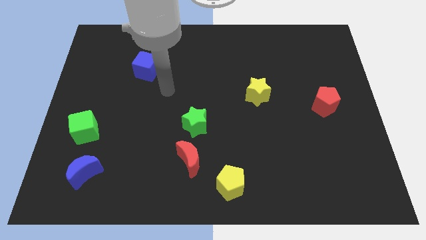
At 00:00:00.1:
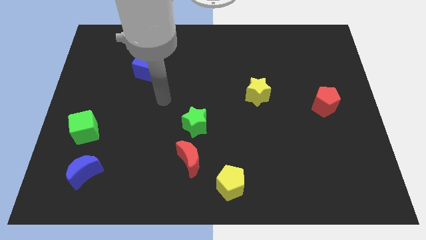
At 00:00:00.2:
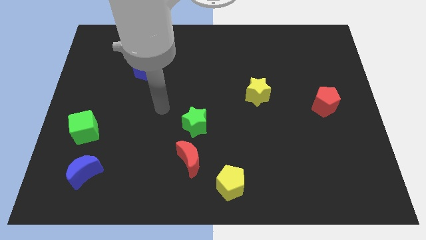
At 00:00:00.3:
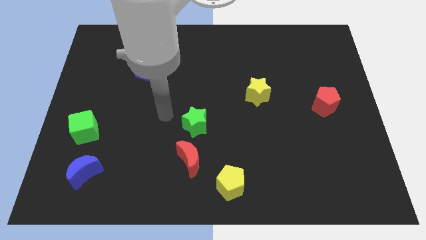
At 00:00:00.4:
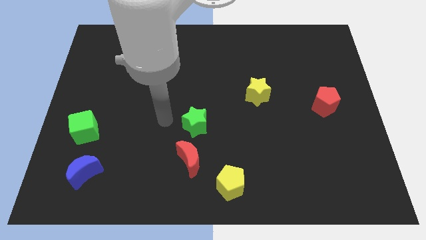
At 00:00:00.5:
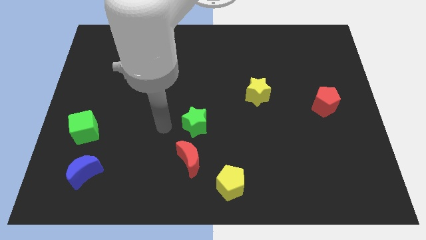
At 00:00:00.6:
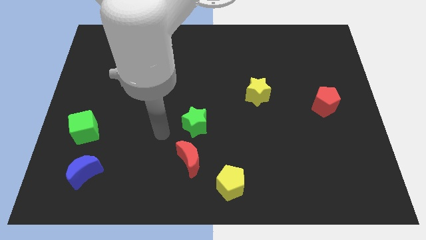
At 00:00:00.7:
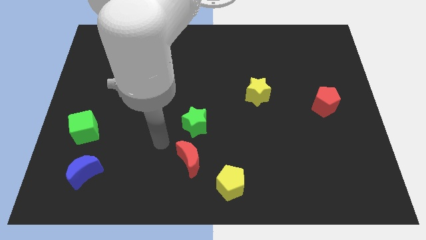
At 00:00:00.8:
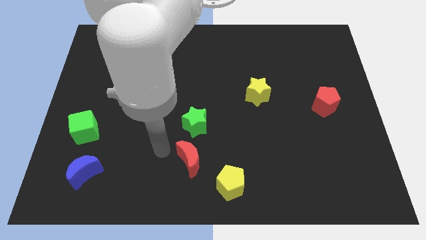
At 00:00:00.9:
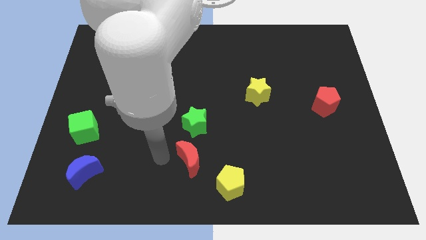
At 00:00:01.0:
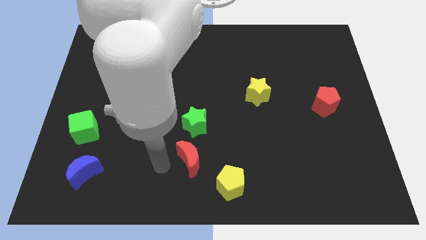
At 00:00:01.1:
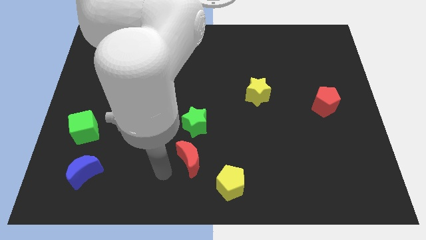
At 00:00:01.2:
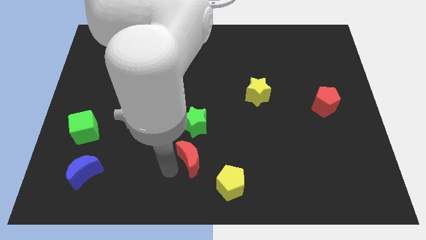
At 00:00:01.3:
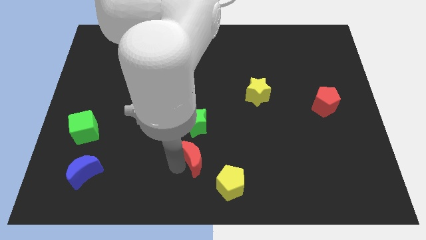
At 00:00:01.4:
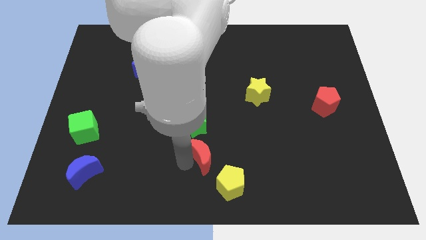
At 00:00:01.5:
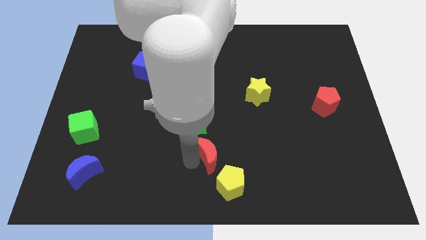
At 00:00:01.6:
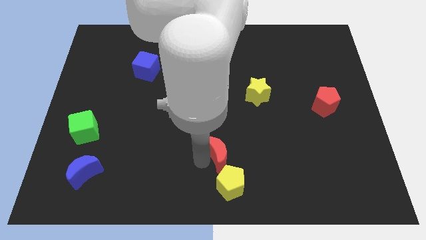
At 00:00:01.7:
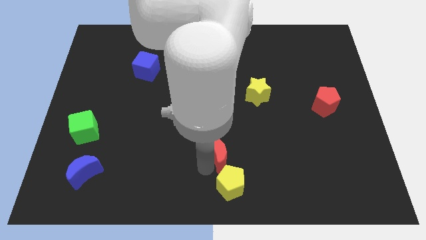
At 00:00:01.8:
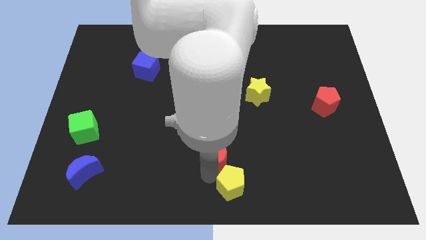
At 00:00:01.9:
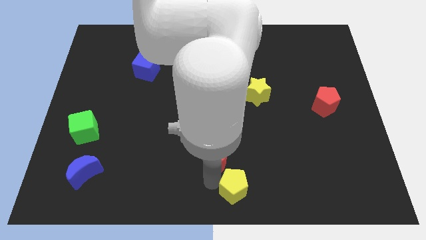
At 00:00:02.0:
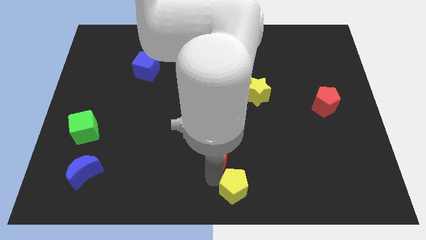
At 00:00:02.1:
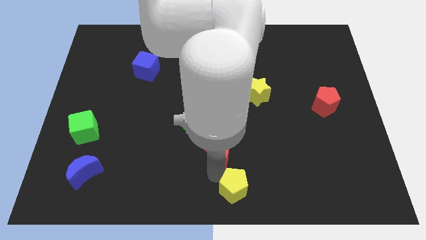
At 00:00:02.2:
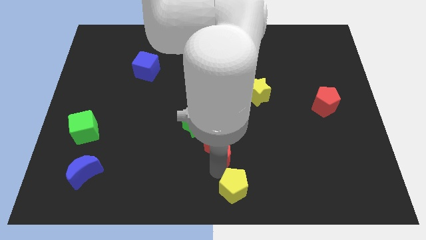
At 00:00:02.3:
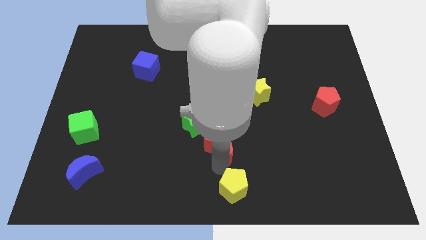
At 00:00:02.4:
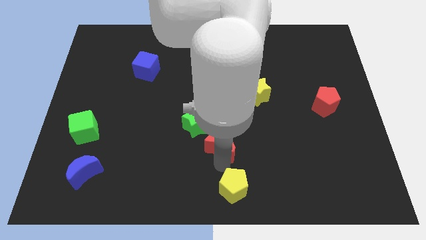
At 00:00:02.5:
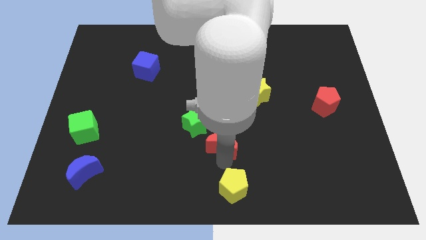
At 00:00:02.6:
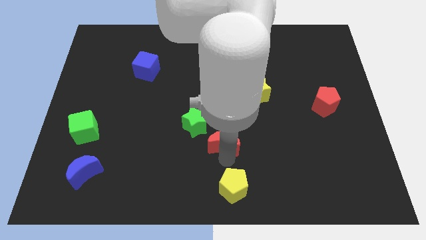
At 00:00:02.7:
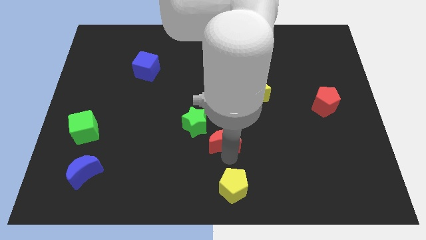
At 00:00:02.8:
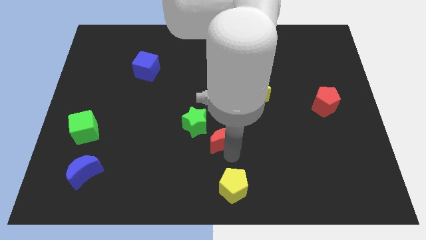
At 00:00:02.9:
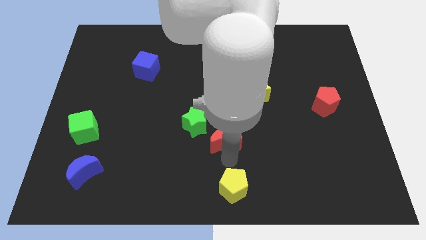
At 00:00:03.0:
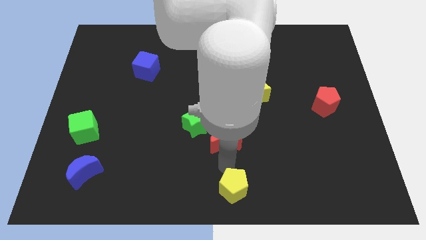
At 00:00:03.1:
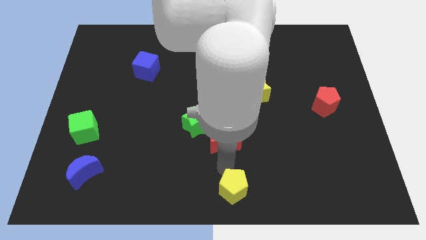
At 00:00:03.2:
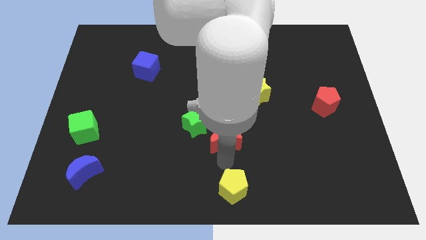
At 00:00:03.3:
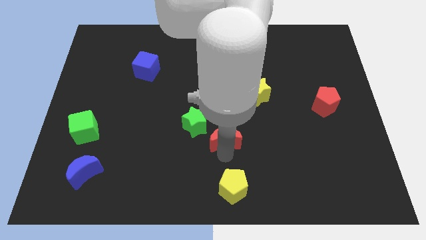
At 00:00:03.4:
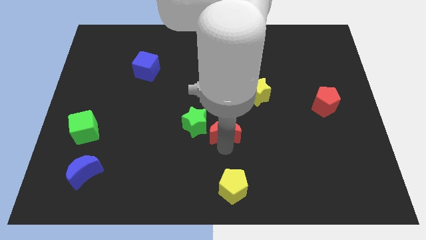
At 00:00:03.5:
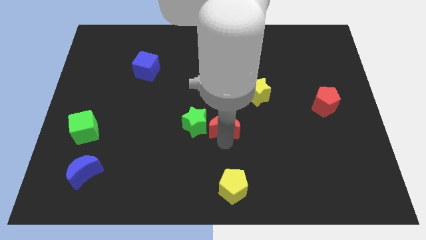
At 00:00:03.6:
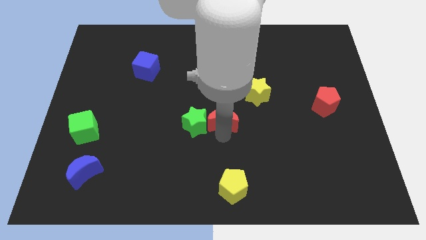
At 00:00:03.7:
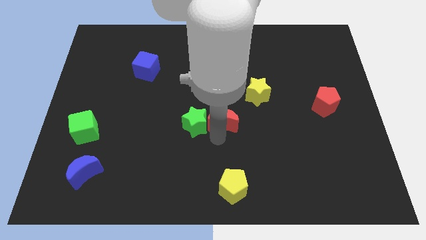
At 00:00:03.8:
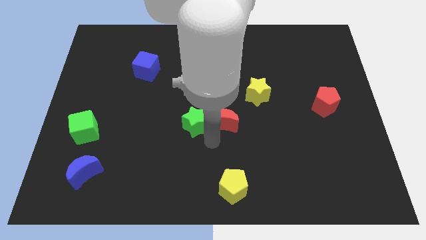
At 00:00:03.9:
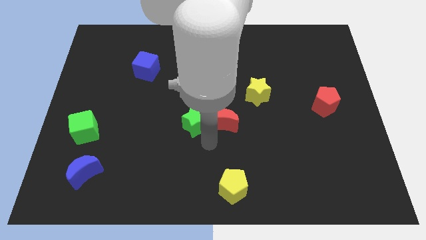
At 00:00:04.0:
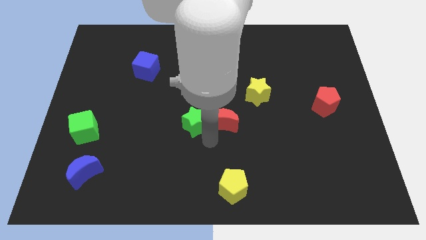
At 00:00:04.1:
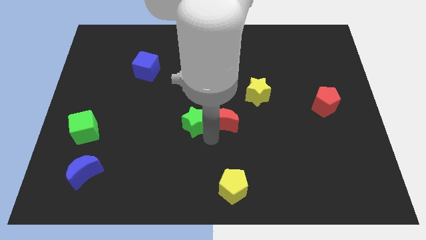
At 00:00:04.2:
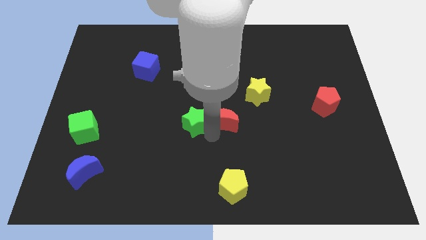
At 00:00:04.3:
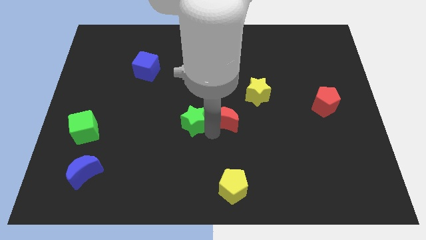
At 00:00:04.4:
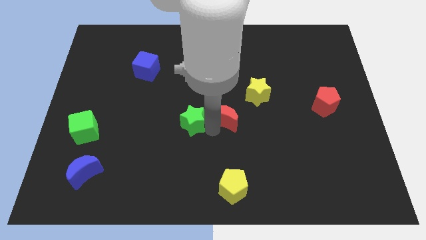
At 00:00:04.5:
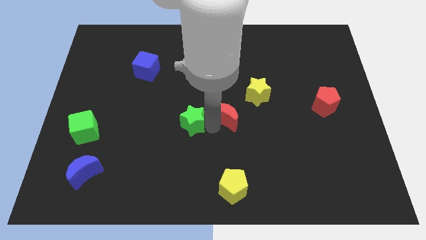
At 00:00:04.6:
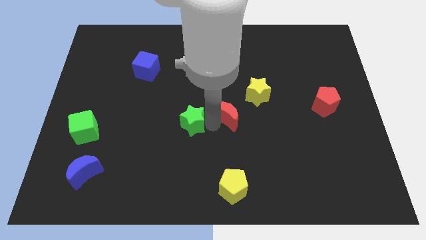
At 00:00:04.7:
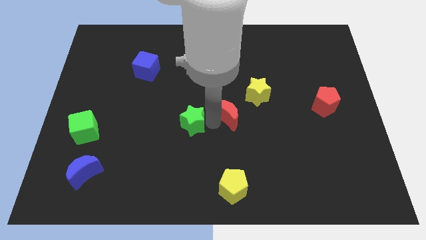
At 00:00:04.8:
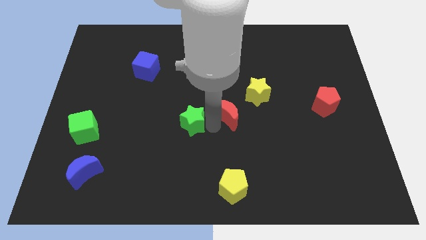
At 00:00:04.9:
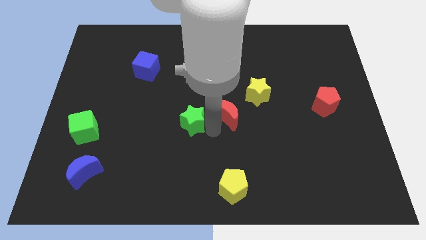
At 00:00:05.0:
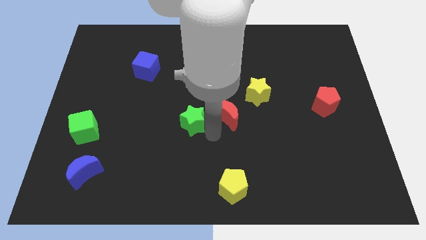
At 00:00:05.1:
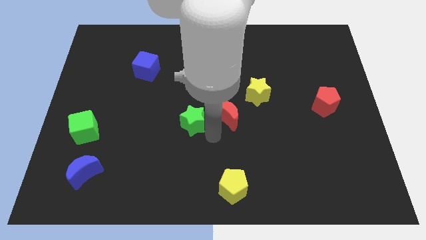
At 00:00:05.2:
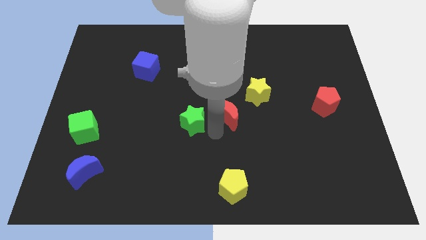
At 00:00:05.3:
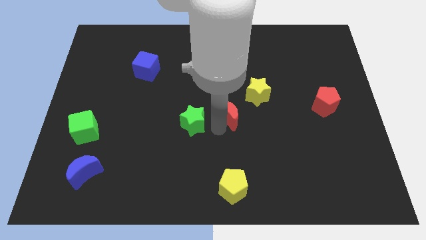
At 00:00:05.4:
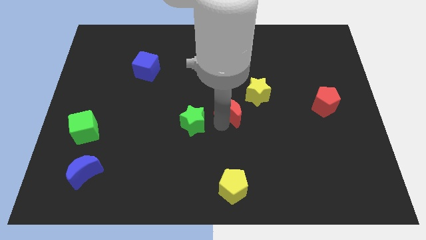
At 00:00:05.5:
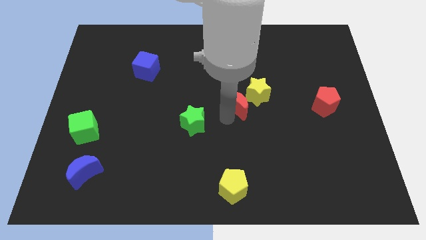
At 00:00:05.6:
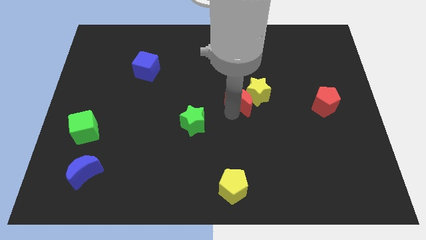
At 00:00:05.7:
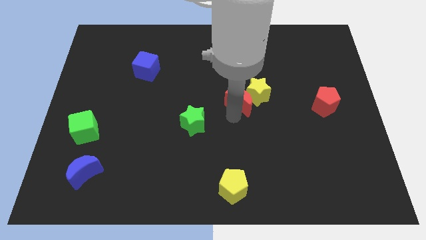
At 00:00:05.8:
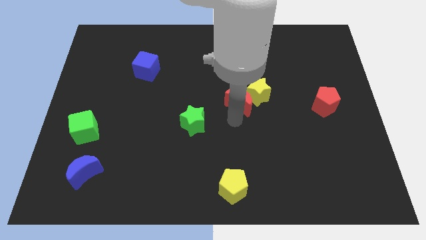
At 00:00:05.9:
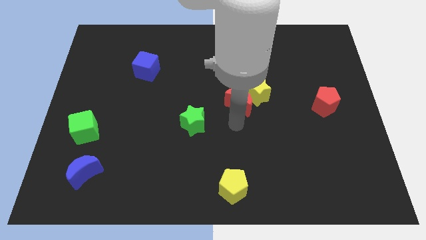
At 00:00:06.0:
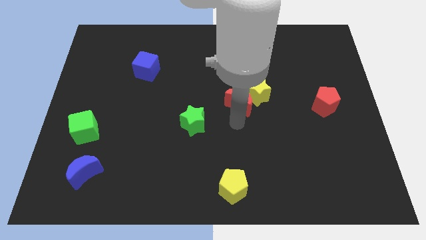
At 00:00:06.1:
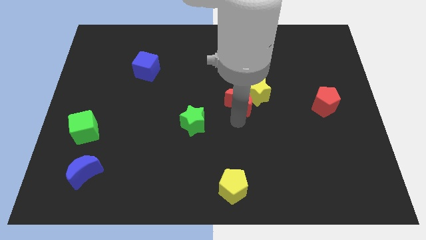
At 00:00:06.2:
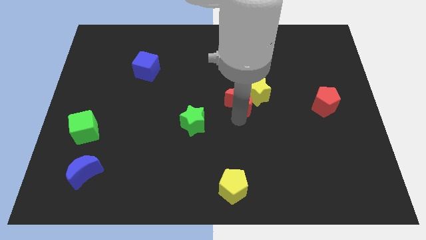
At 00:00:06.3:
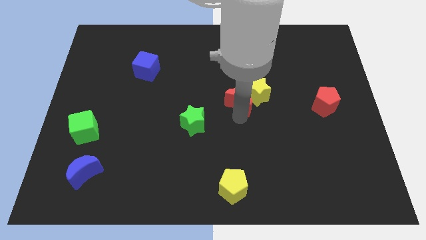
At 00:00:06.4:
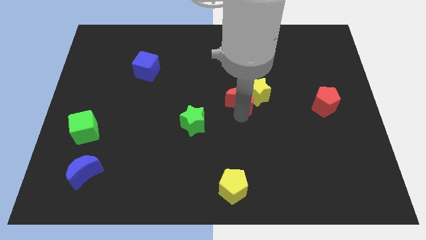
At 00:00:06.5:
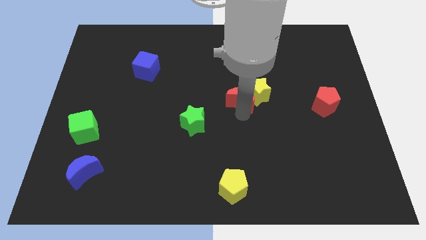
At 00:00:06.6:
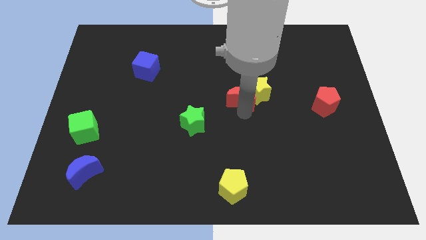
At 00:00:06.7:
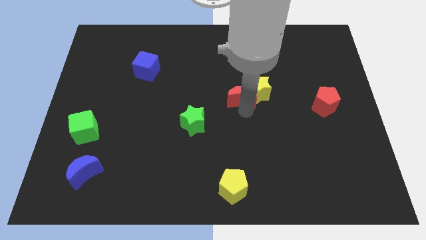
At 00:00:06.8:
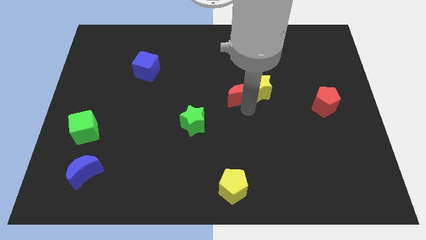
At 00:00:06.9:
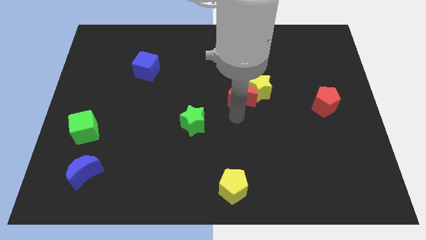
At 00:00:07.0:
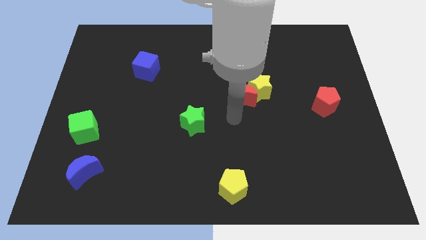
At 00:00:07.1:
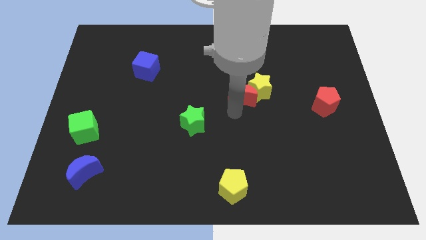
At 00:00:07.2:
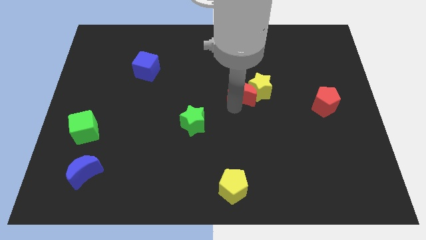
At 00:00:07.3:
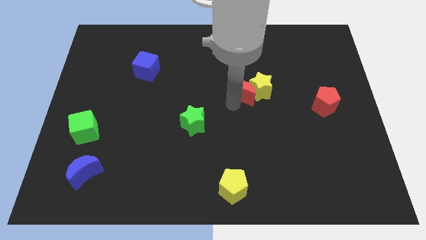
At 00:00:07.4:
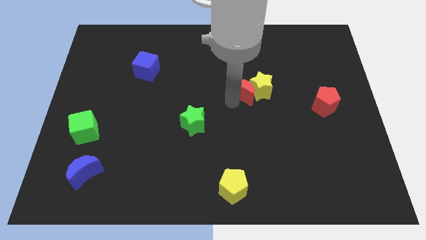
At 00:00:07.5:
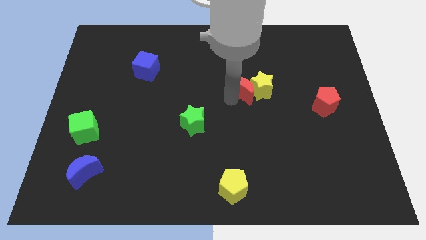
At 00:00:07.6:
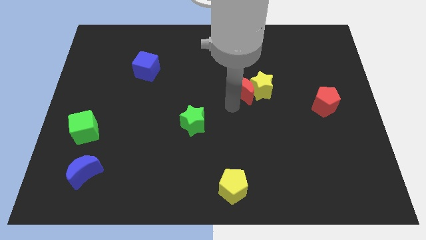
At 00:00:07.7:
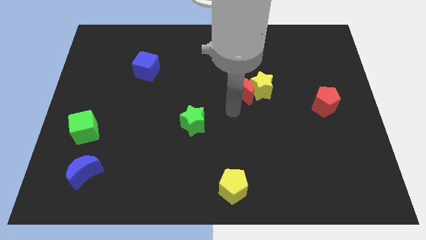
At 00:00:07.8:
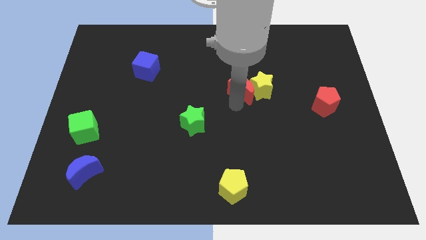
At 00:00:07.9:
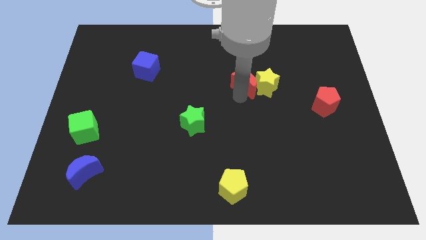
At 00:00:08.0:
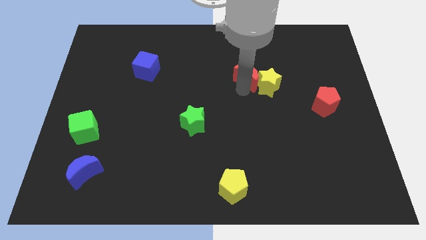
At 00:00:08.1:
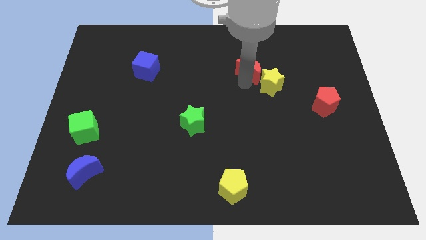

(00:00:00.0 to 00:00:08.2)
push the red moon above the yellow star
